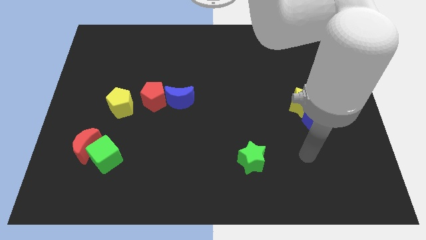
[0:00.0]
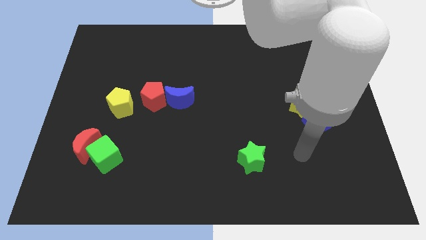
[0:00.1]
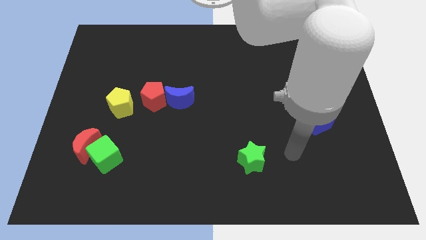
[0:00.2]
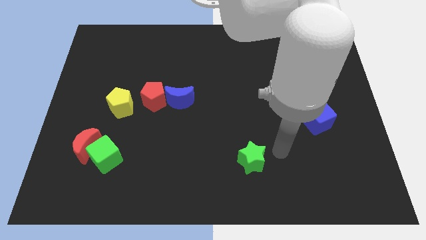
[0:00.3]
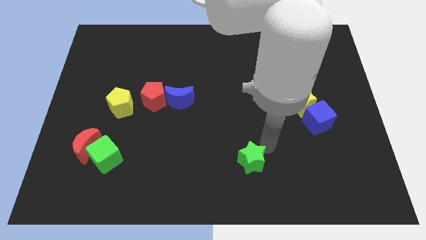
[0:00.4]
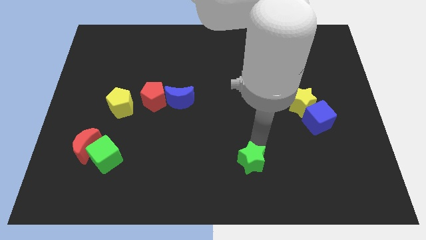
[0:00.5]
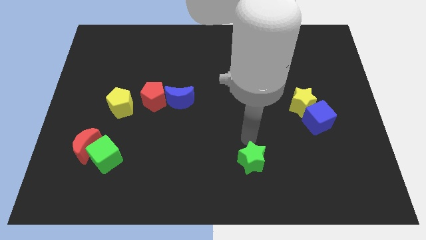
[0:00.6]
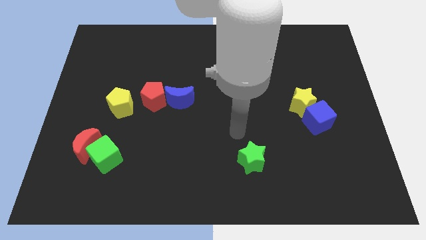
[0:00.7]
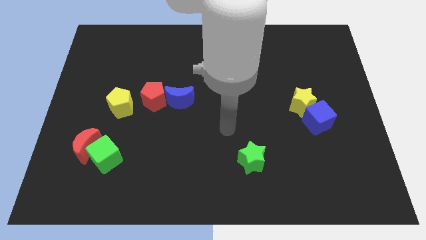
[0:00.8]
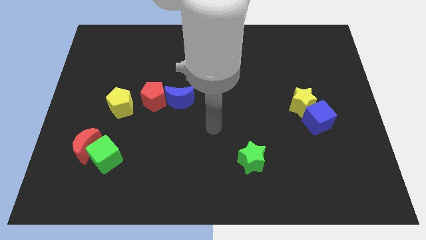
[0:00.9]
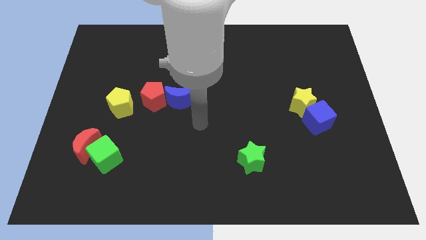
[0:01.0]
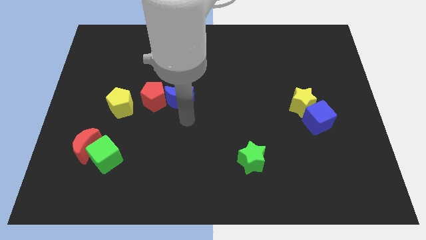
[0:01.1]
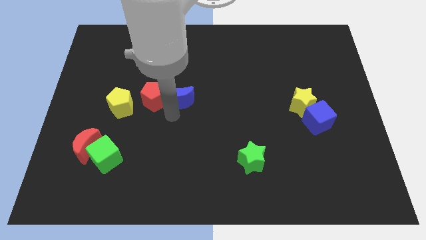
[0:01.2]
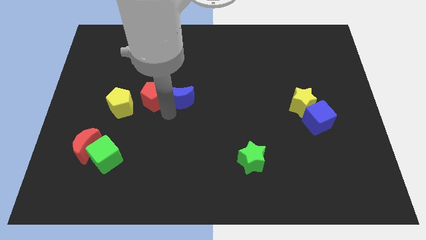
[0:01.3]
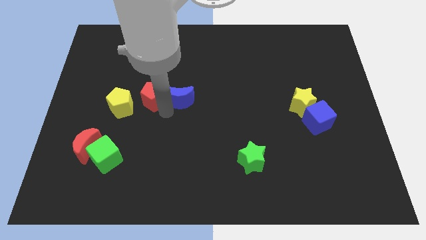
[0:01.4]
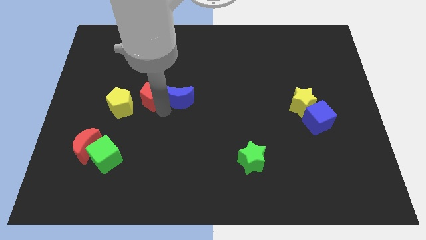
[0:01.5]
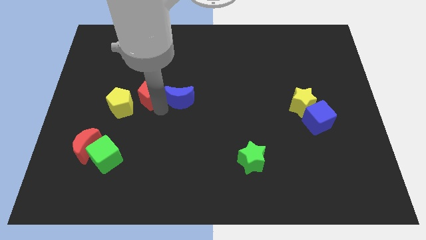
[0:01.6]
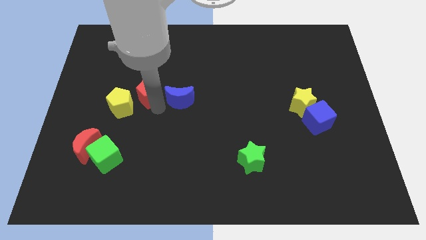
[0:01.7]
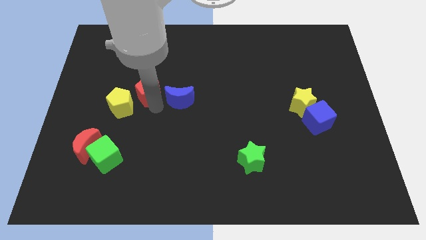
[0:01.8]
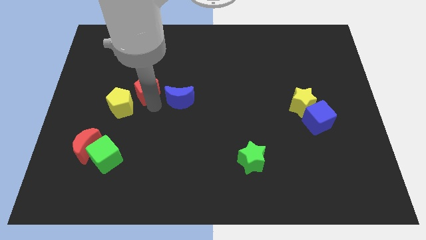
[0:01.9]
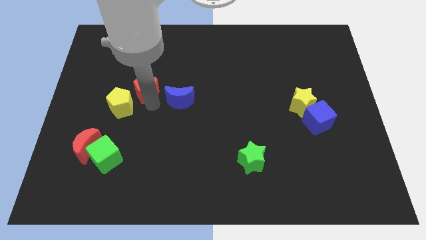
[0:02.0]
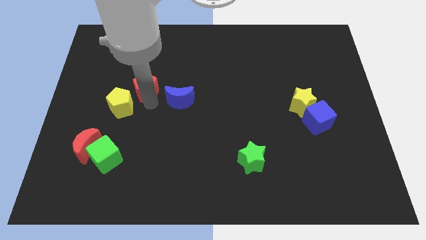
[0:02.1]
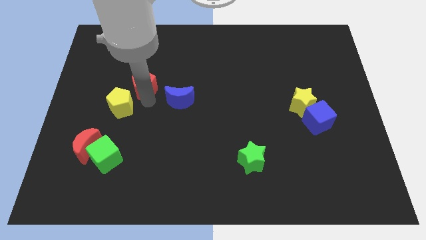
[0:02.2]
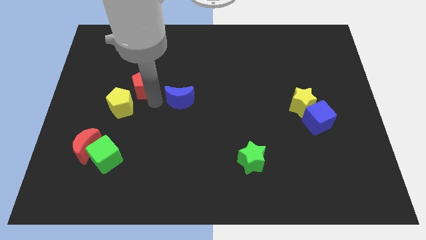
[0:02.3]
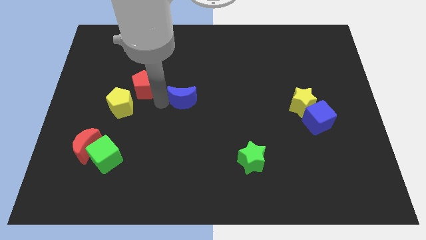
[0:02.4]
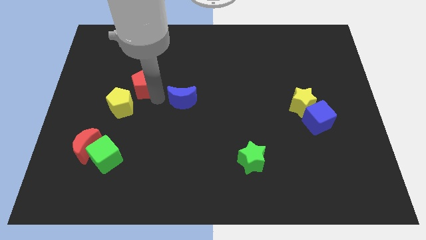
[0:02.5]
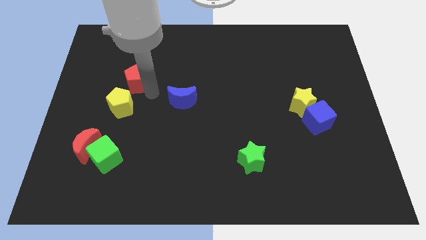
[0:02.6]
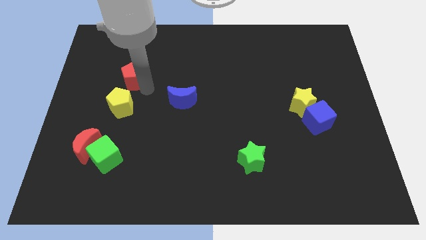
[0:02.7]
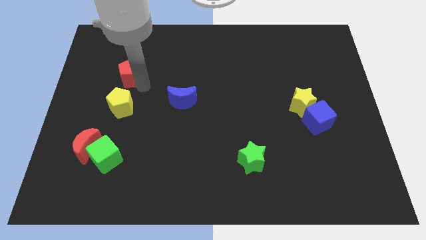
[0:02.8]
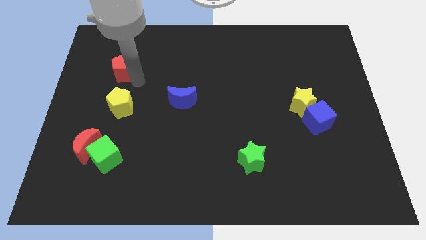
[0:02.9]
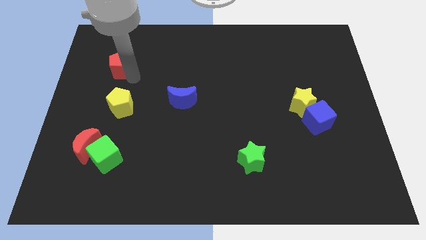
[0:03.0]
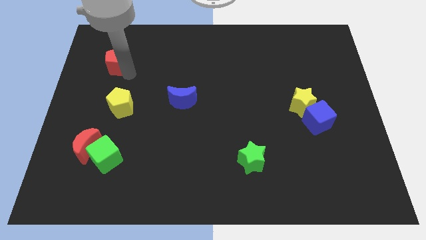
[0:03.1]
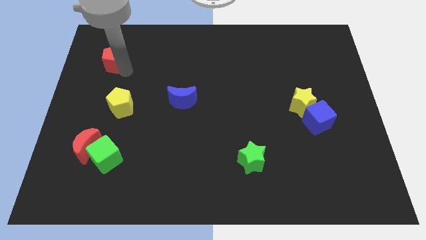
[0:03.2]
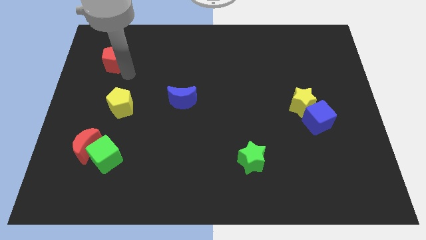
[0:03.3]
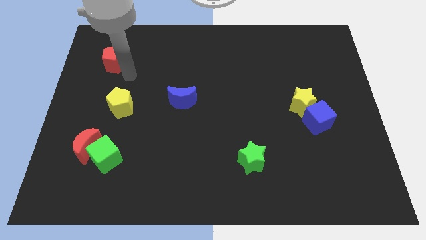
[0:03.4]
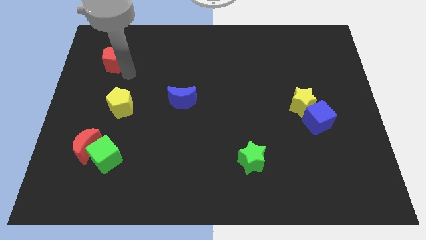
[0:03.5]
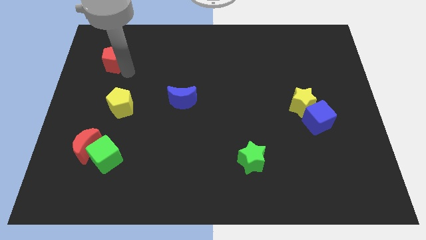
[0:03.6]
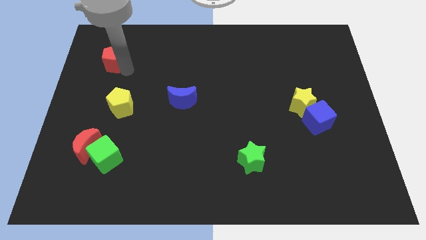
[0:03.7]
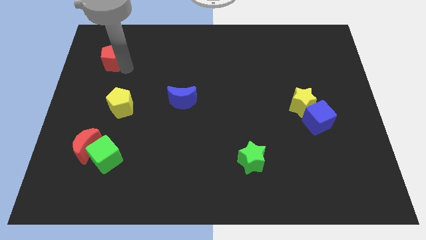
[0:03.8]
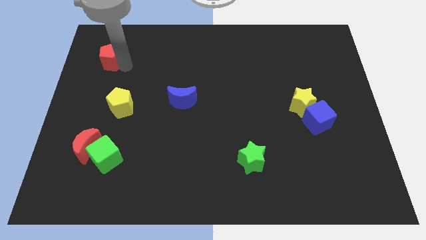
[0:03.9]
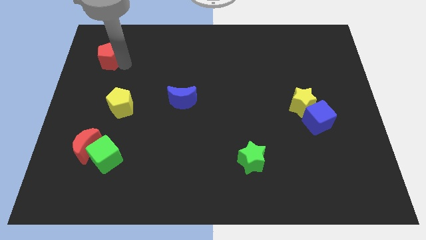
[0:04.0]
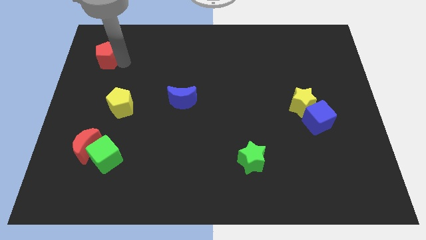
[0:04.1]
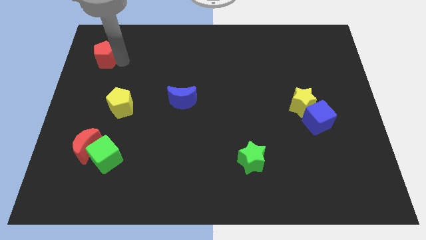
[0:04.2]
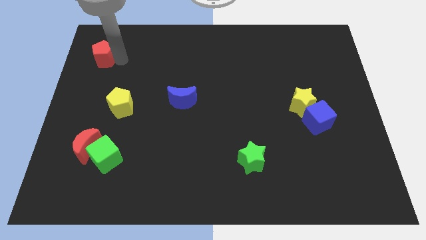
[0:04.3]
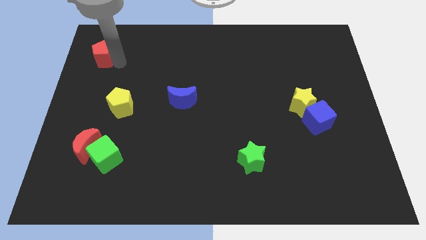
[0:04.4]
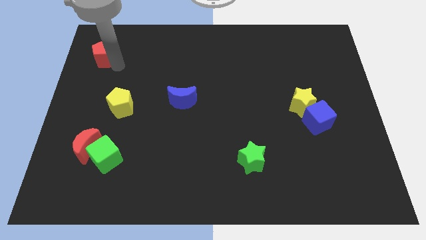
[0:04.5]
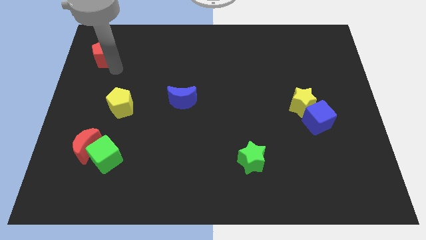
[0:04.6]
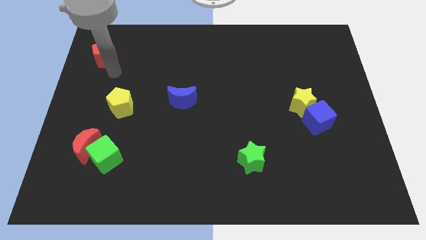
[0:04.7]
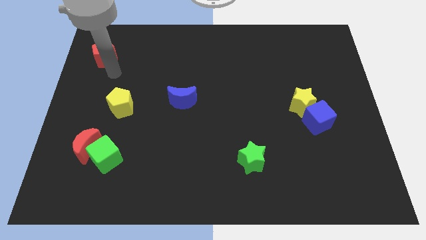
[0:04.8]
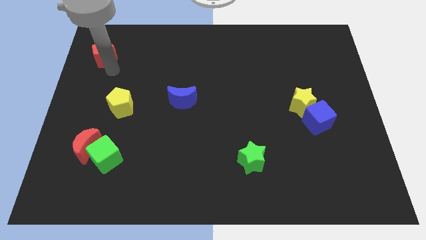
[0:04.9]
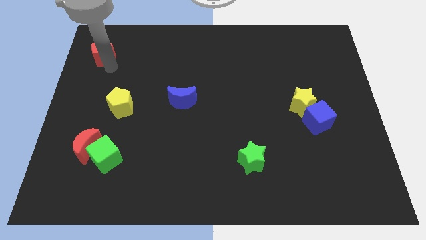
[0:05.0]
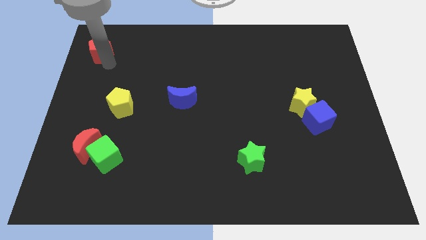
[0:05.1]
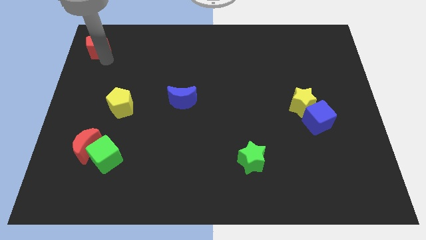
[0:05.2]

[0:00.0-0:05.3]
slide the red pentagon to the top left of the board

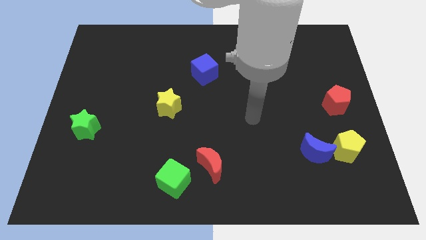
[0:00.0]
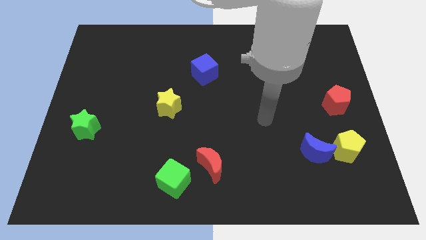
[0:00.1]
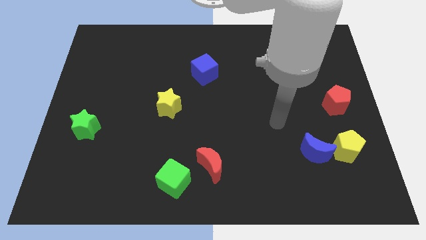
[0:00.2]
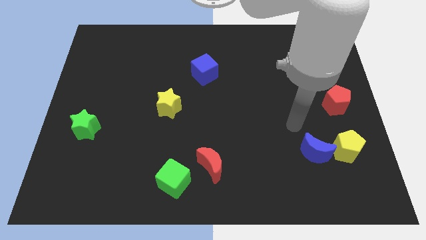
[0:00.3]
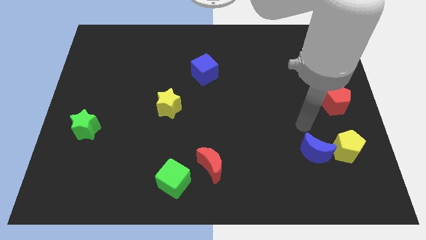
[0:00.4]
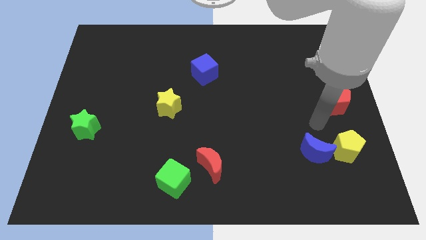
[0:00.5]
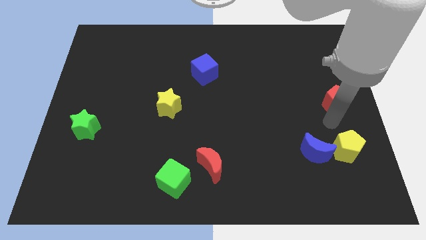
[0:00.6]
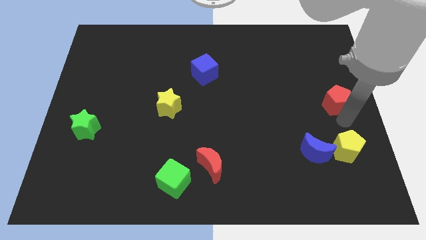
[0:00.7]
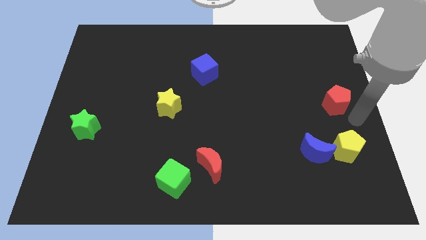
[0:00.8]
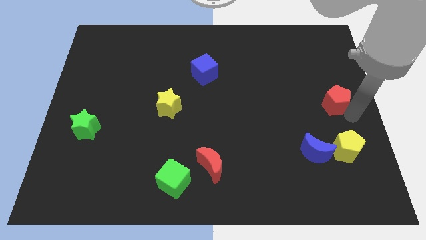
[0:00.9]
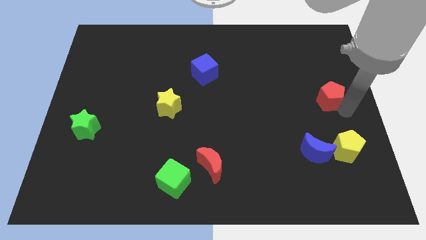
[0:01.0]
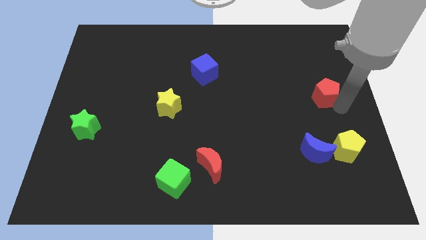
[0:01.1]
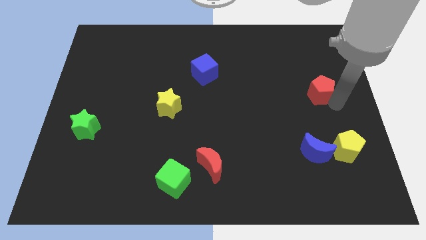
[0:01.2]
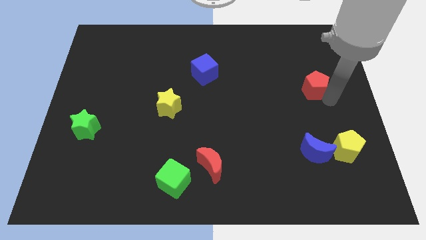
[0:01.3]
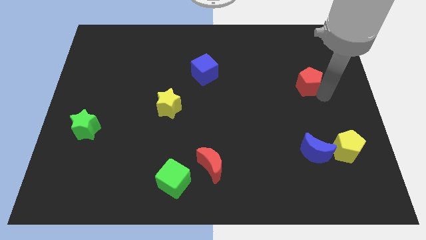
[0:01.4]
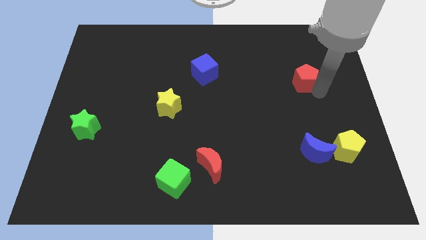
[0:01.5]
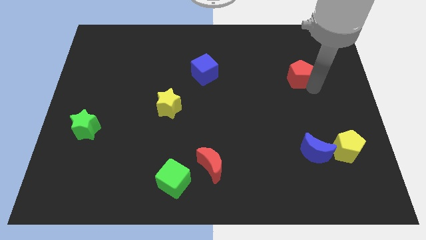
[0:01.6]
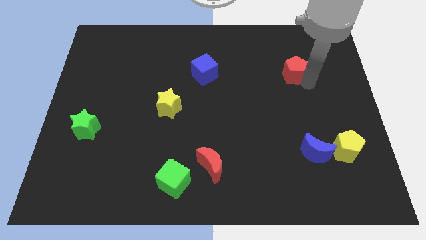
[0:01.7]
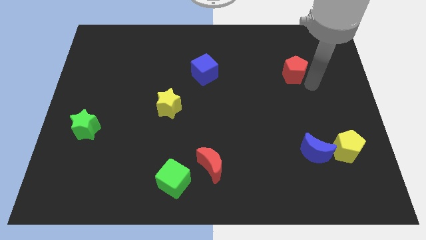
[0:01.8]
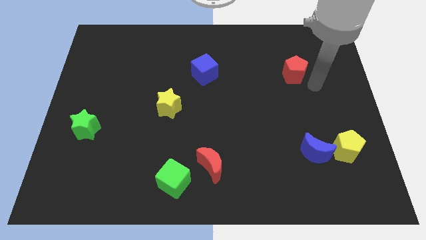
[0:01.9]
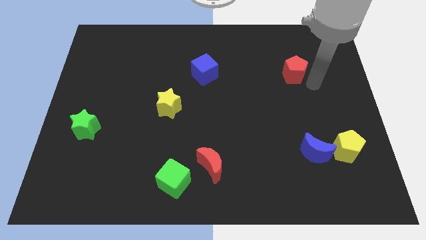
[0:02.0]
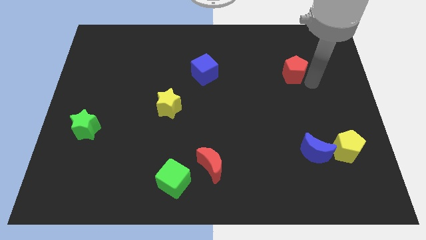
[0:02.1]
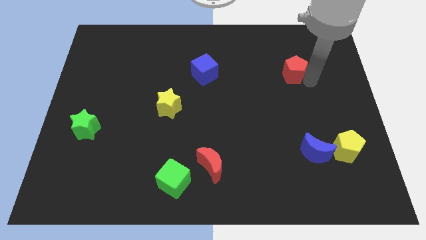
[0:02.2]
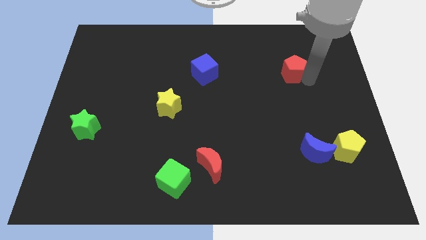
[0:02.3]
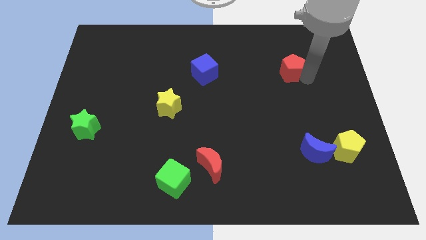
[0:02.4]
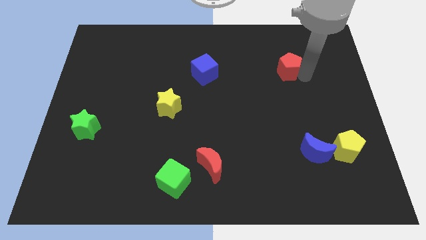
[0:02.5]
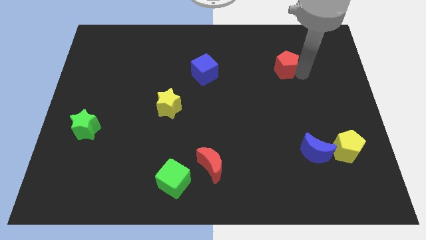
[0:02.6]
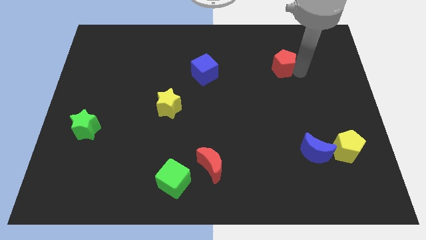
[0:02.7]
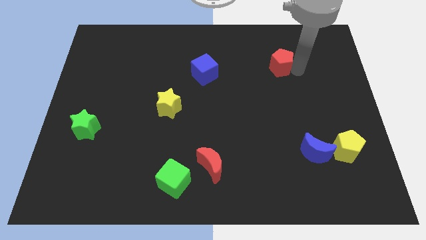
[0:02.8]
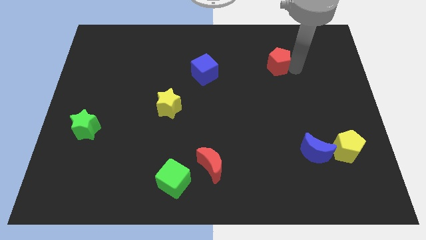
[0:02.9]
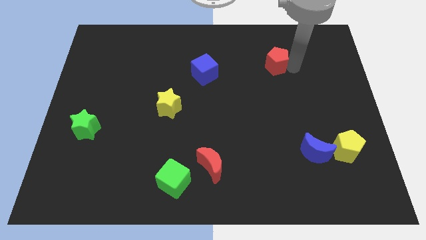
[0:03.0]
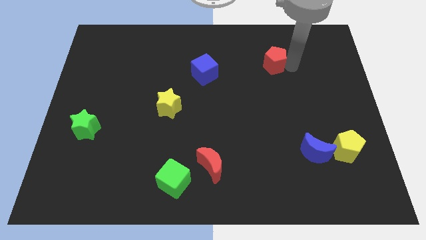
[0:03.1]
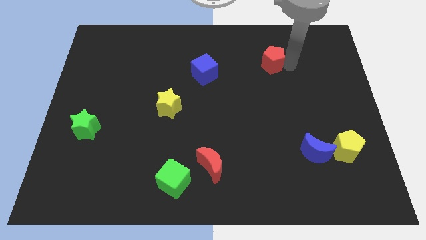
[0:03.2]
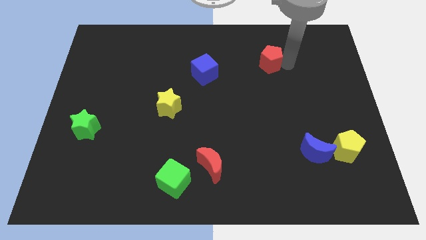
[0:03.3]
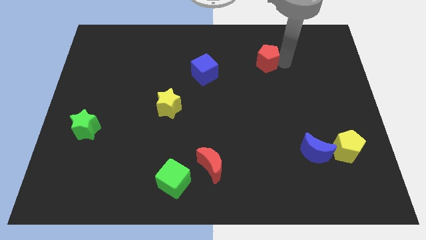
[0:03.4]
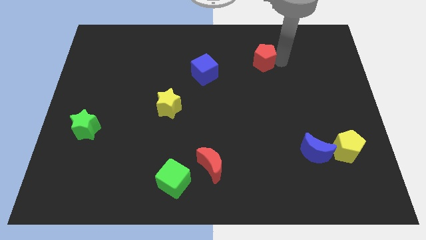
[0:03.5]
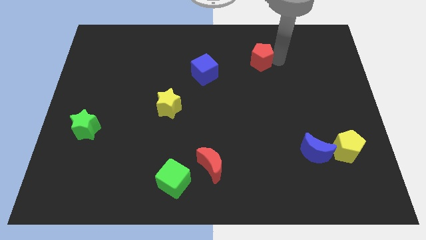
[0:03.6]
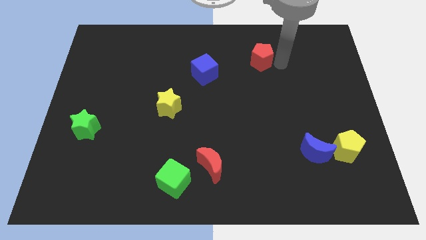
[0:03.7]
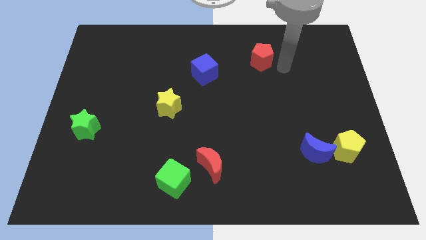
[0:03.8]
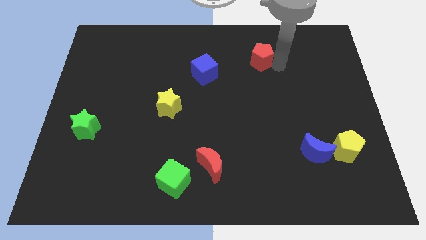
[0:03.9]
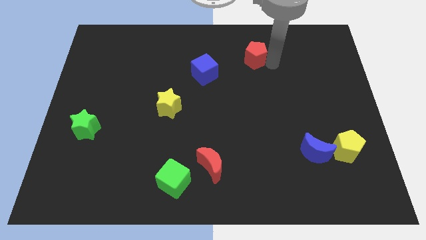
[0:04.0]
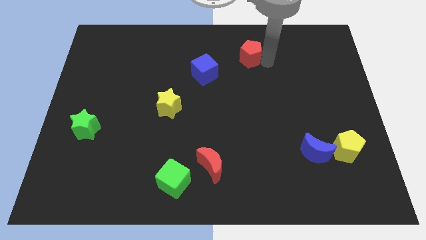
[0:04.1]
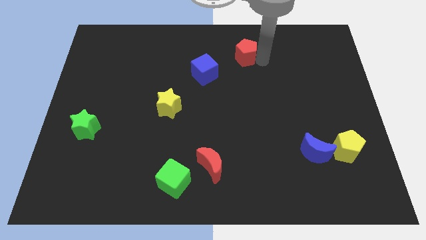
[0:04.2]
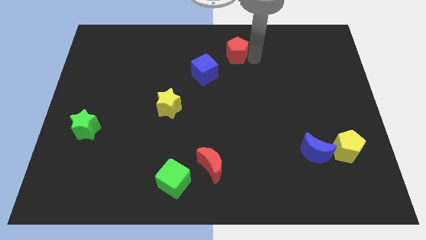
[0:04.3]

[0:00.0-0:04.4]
put the red pentagon to the top
